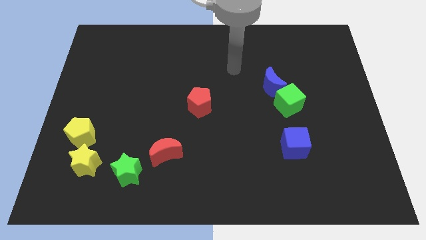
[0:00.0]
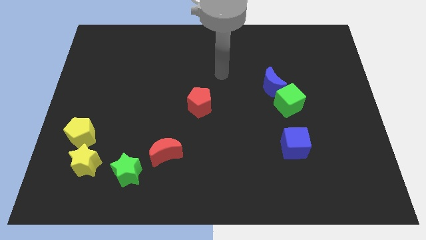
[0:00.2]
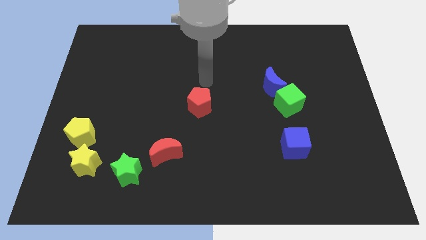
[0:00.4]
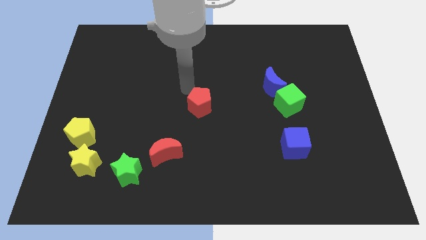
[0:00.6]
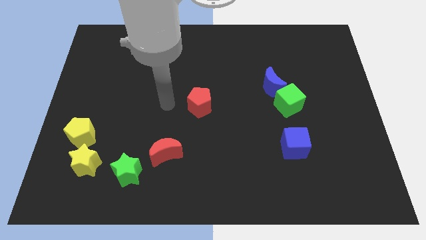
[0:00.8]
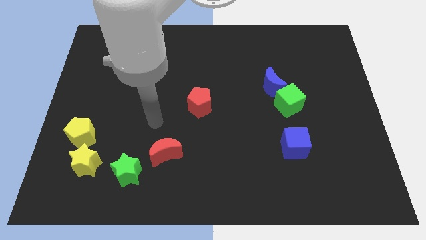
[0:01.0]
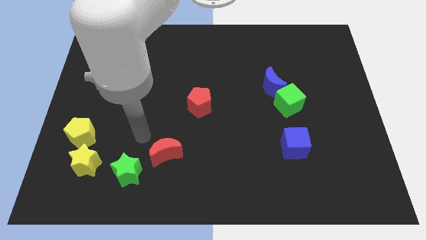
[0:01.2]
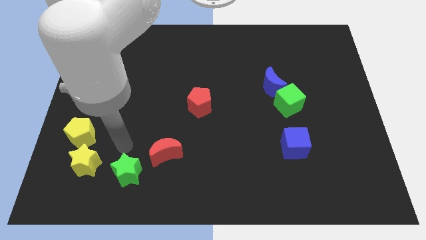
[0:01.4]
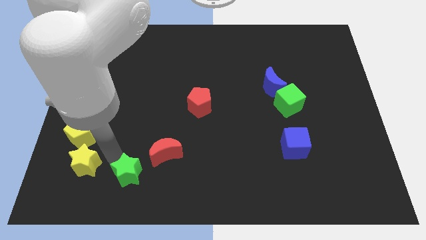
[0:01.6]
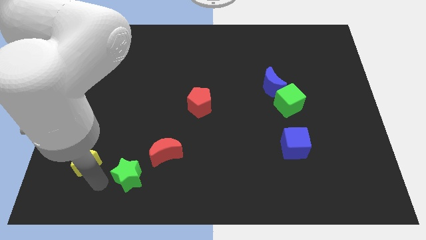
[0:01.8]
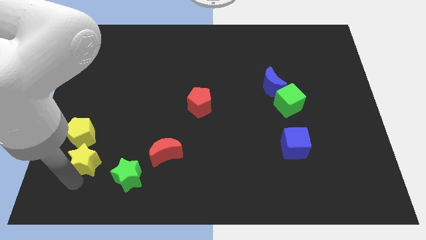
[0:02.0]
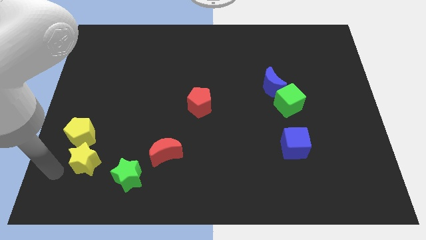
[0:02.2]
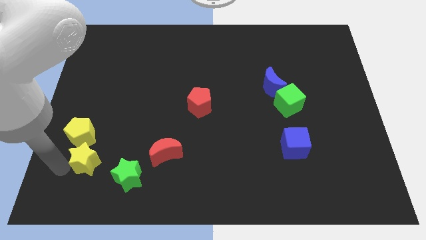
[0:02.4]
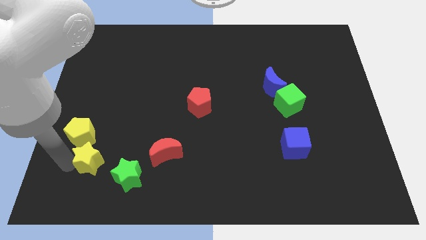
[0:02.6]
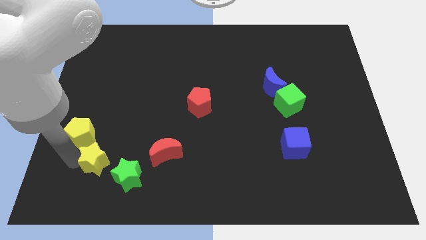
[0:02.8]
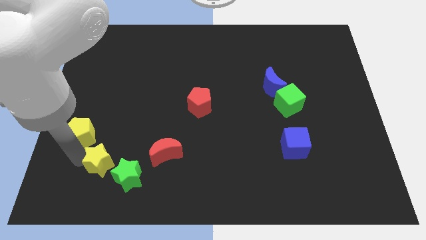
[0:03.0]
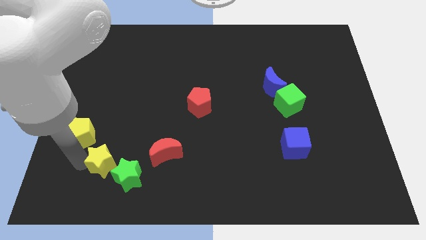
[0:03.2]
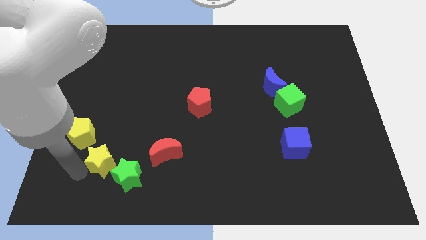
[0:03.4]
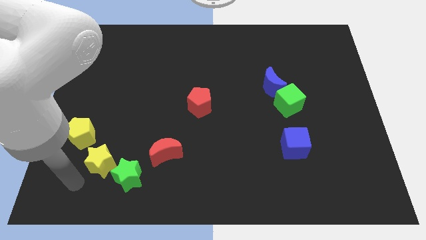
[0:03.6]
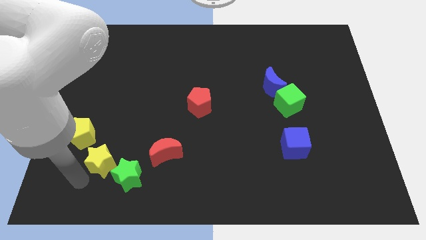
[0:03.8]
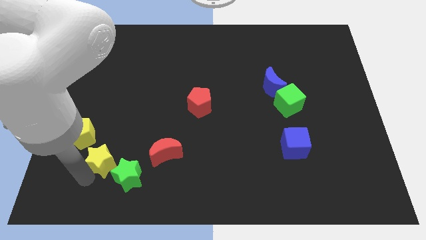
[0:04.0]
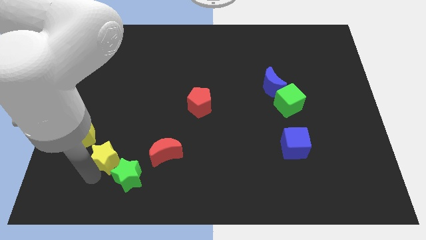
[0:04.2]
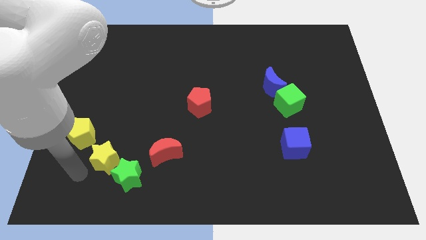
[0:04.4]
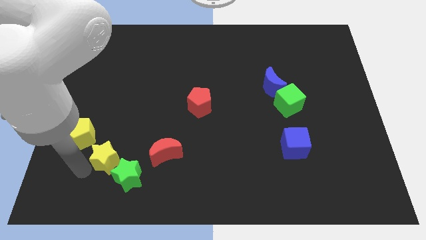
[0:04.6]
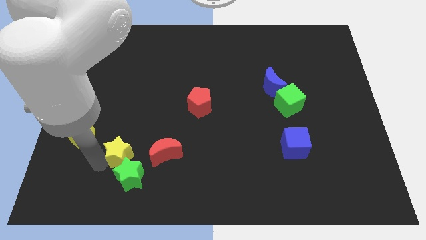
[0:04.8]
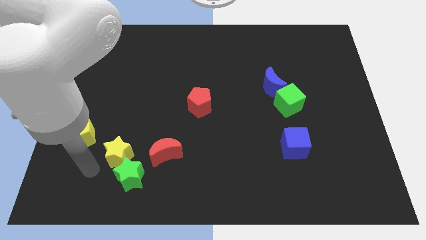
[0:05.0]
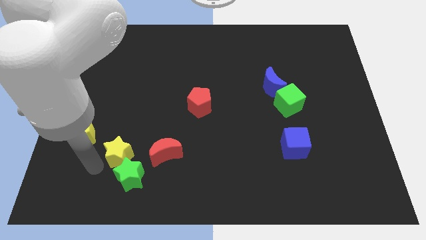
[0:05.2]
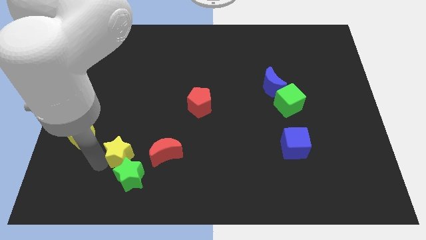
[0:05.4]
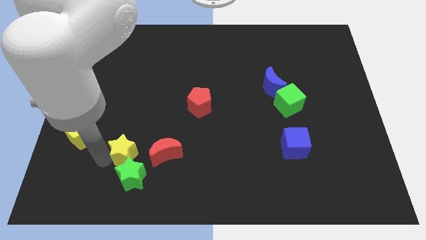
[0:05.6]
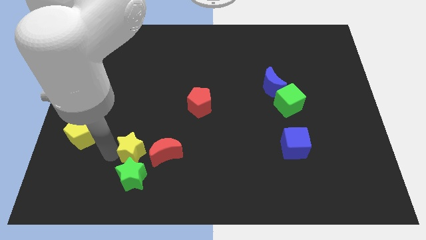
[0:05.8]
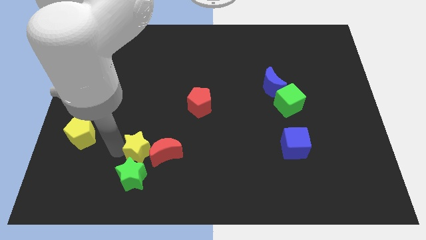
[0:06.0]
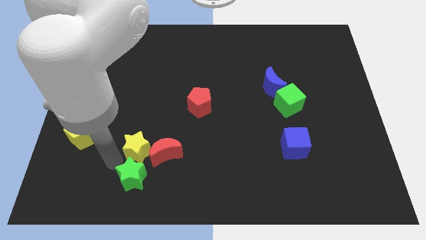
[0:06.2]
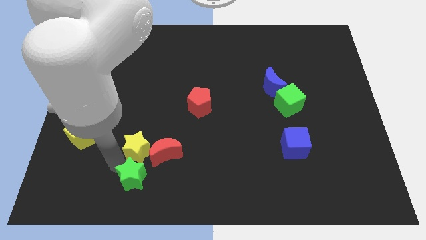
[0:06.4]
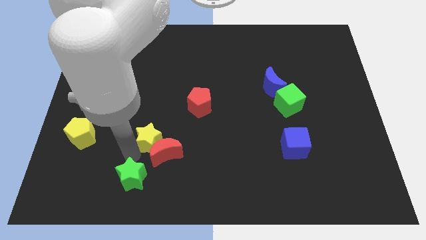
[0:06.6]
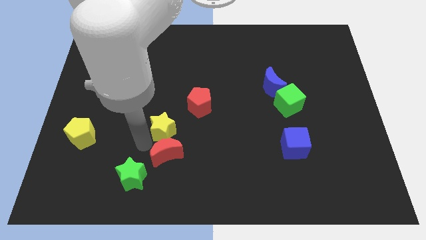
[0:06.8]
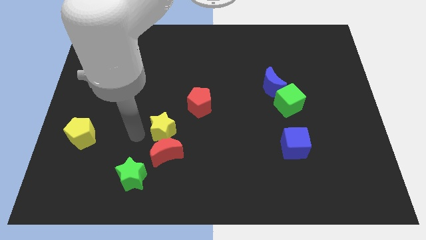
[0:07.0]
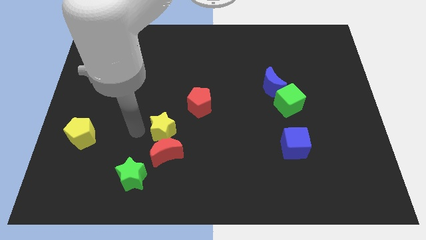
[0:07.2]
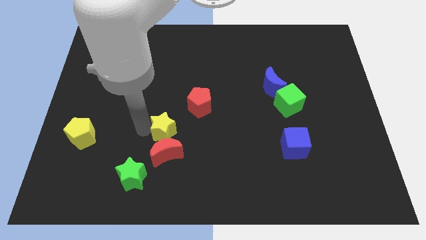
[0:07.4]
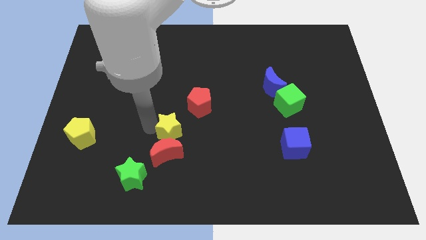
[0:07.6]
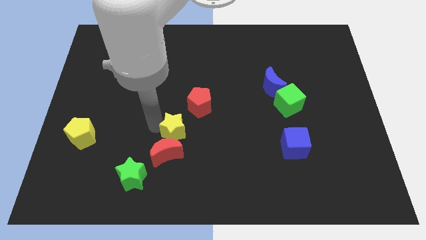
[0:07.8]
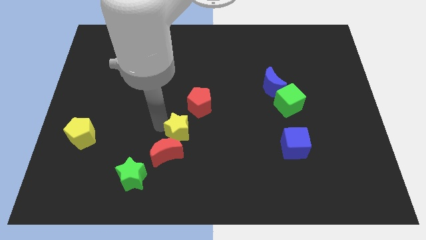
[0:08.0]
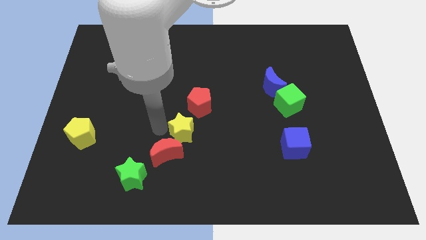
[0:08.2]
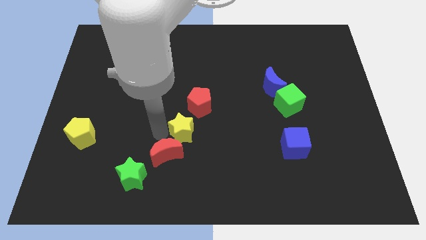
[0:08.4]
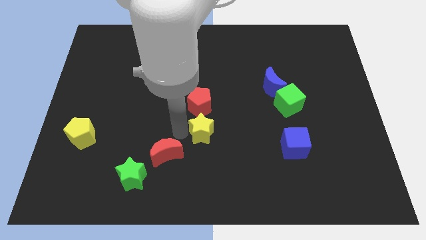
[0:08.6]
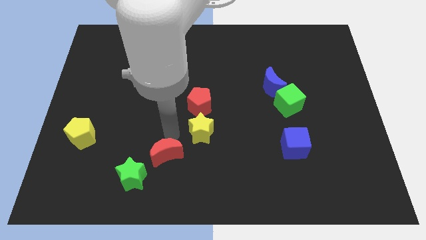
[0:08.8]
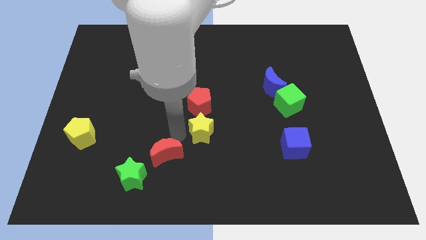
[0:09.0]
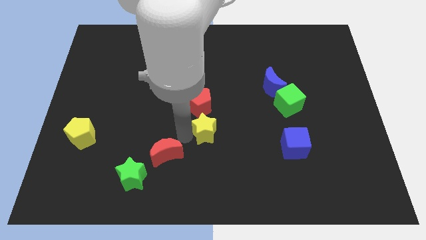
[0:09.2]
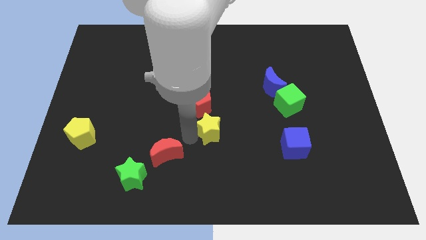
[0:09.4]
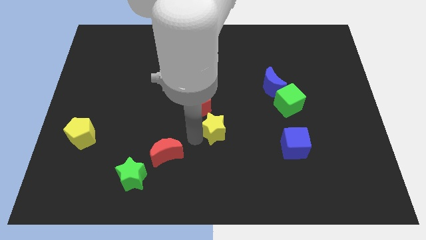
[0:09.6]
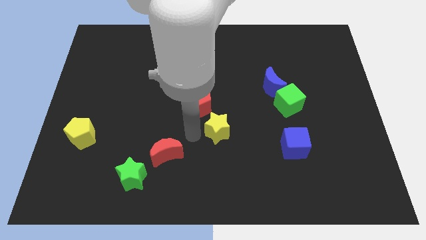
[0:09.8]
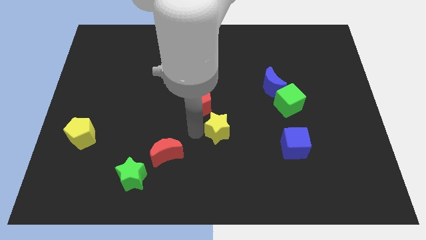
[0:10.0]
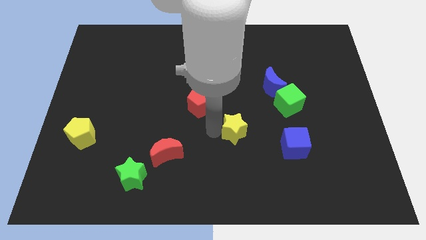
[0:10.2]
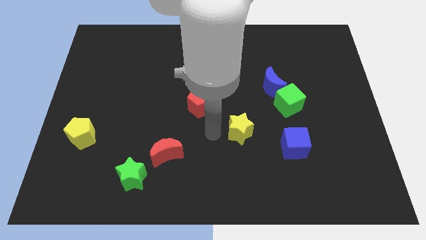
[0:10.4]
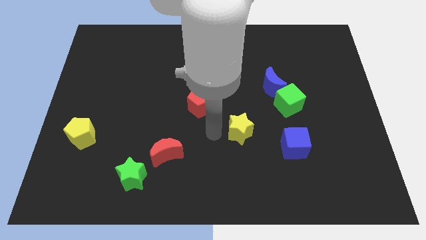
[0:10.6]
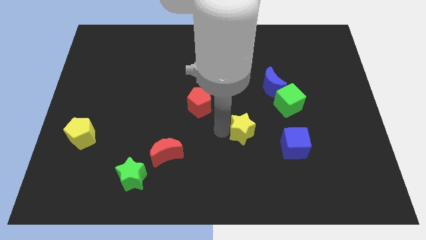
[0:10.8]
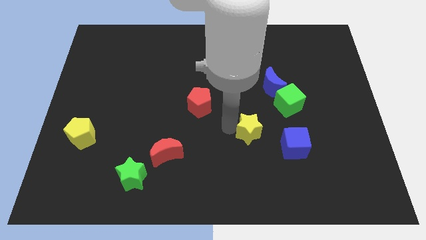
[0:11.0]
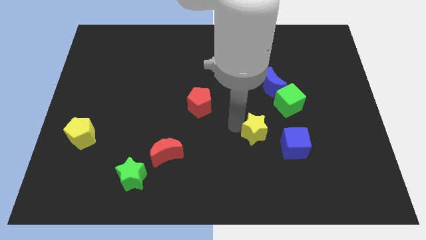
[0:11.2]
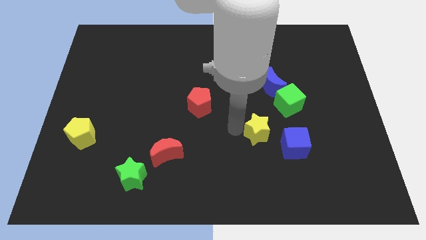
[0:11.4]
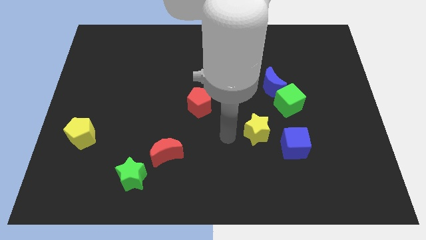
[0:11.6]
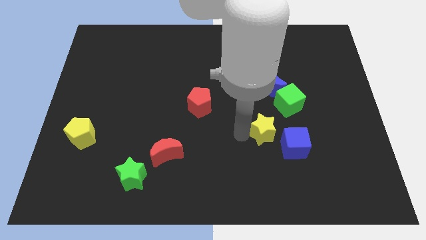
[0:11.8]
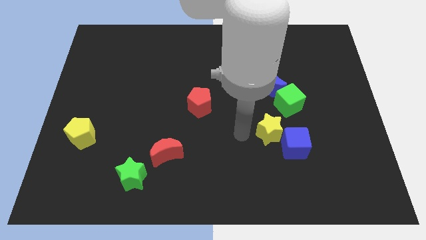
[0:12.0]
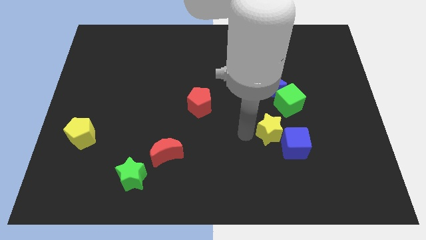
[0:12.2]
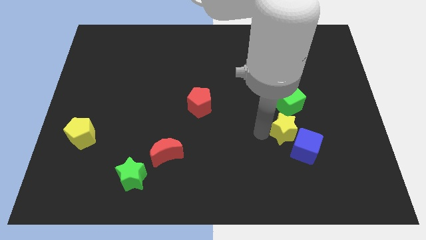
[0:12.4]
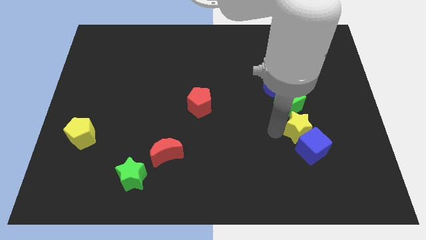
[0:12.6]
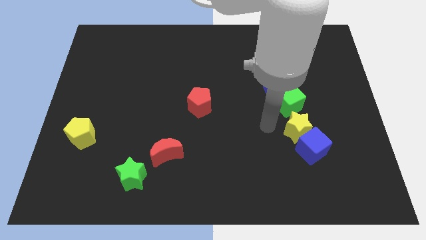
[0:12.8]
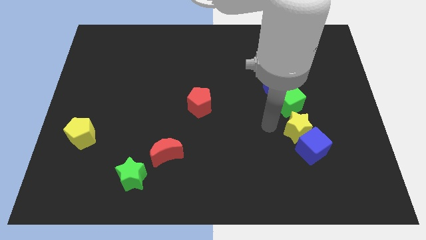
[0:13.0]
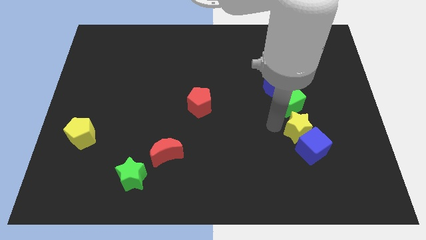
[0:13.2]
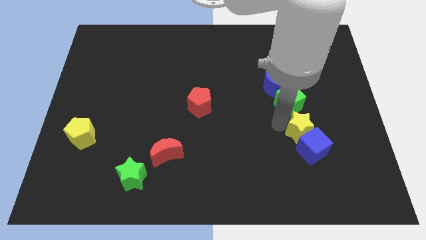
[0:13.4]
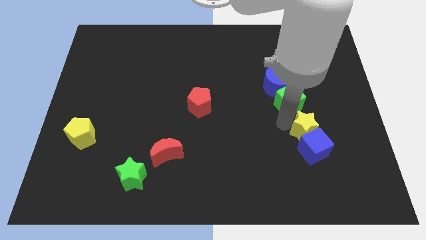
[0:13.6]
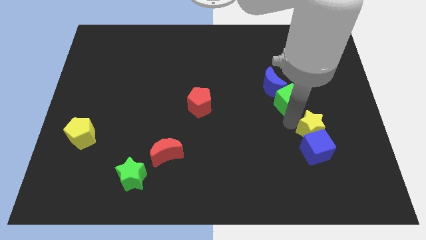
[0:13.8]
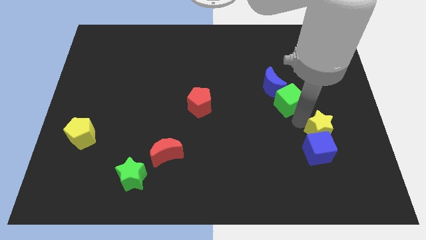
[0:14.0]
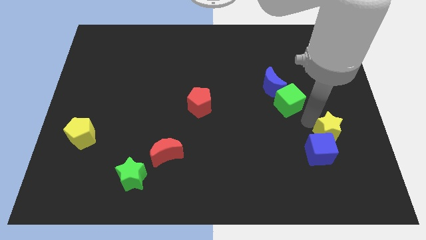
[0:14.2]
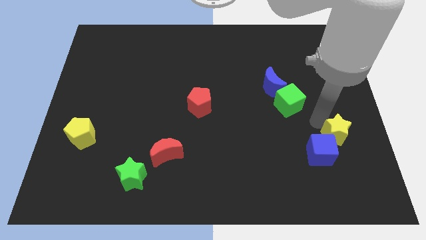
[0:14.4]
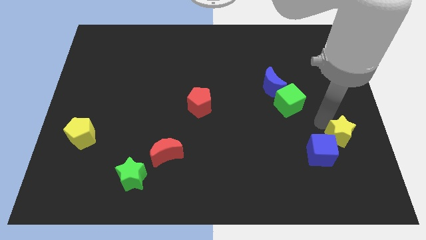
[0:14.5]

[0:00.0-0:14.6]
push the yellow star to the right side of the blue cube

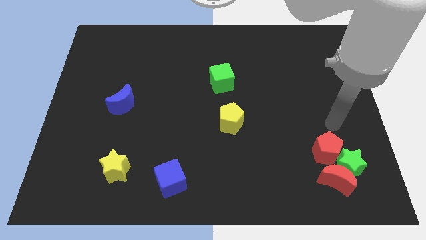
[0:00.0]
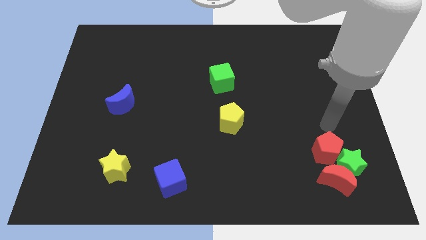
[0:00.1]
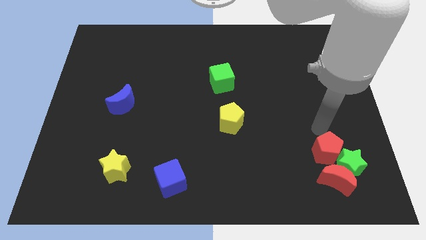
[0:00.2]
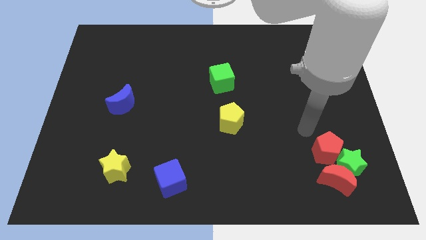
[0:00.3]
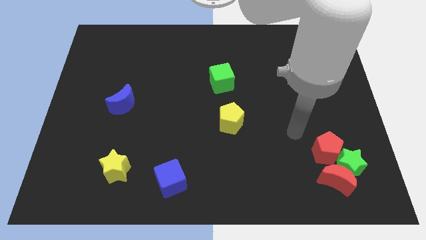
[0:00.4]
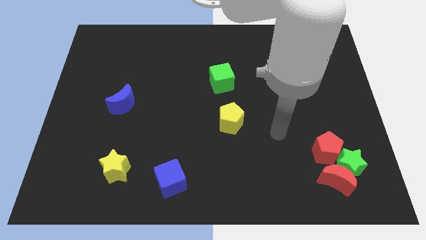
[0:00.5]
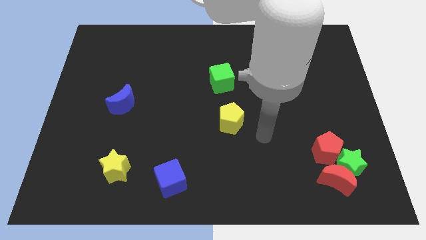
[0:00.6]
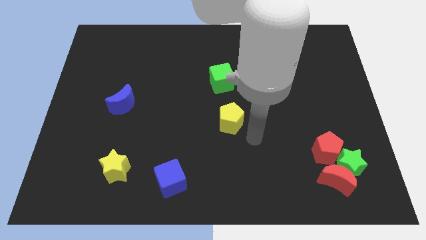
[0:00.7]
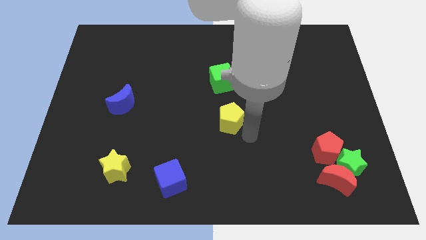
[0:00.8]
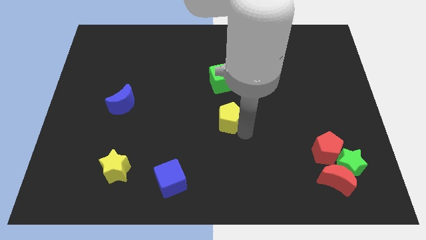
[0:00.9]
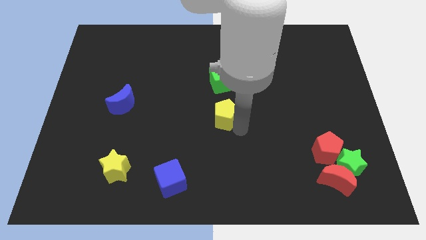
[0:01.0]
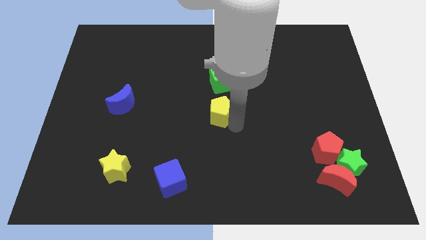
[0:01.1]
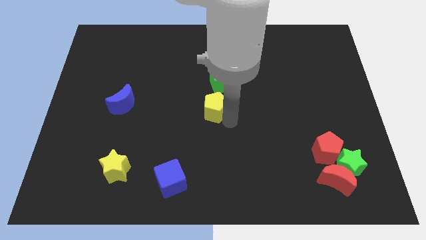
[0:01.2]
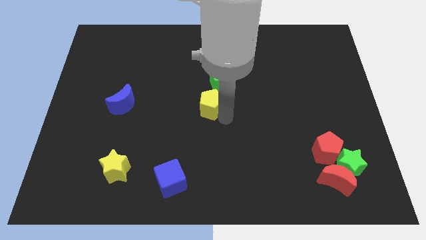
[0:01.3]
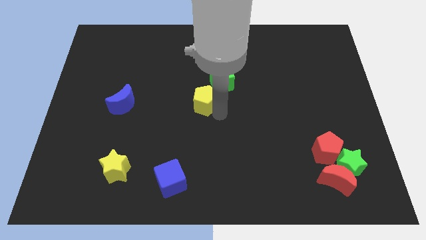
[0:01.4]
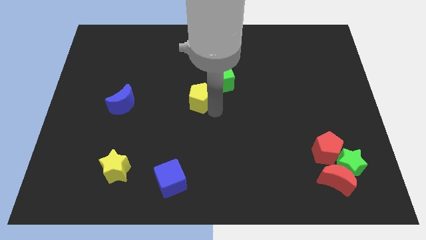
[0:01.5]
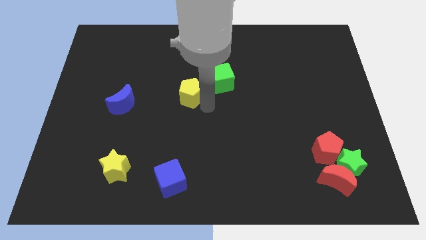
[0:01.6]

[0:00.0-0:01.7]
push the yellow pentagon to the left of the green cube
